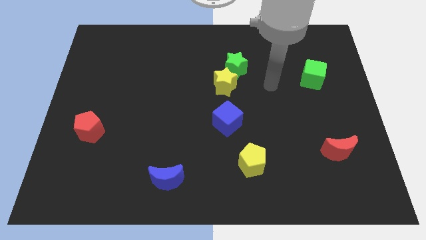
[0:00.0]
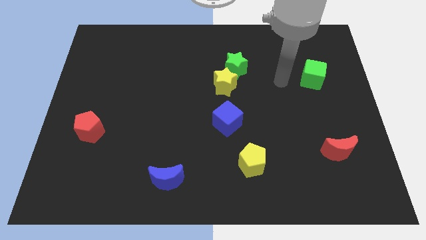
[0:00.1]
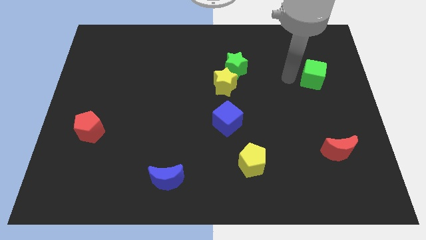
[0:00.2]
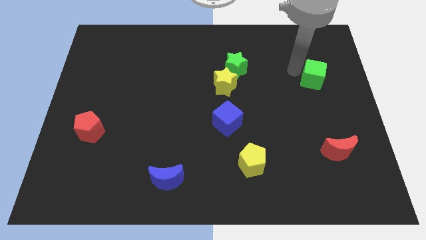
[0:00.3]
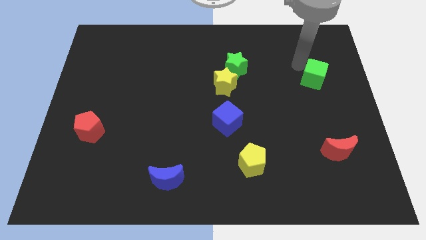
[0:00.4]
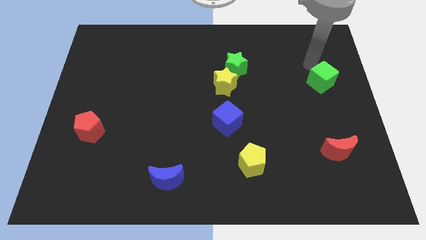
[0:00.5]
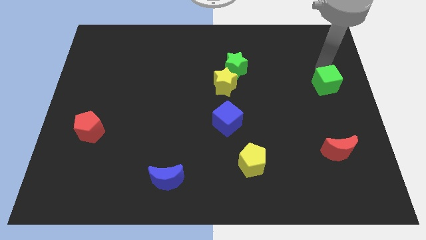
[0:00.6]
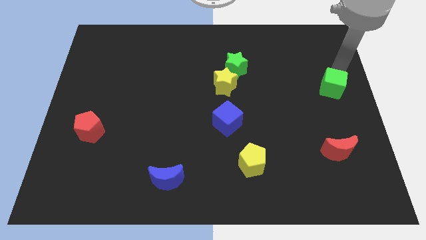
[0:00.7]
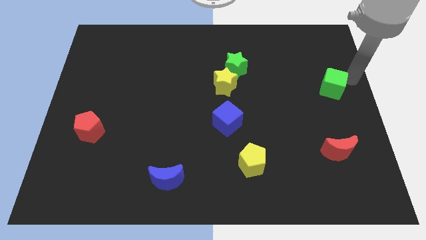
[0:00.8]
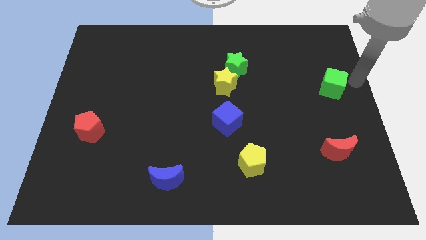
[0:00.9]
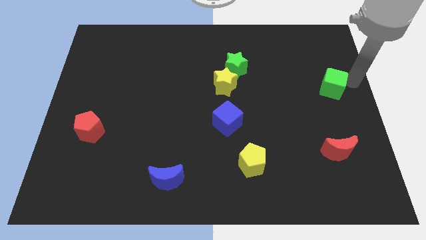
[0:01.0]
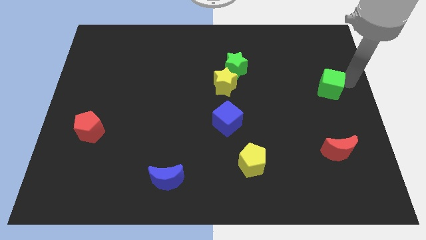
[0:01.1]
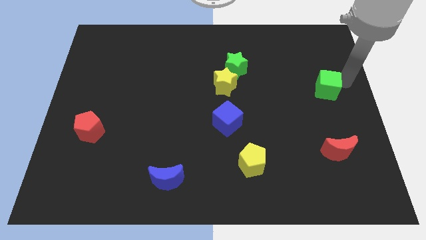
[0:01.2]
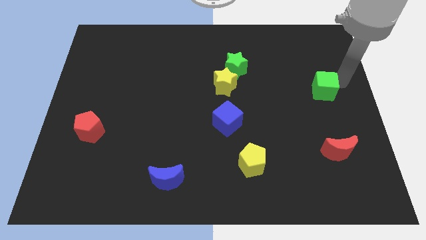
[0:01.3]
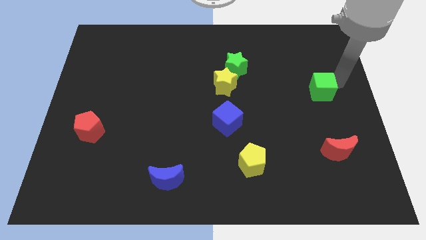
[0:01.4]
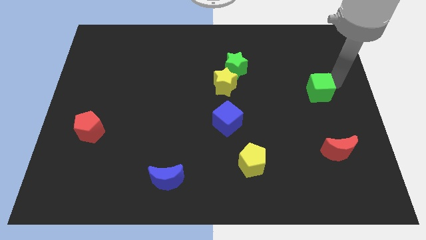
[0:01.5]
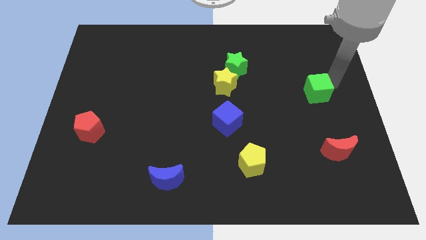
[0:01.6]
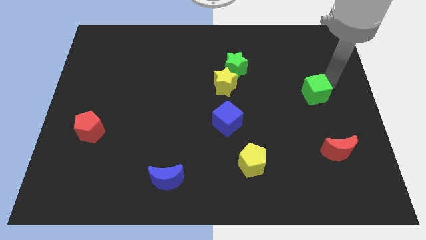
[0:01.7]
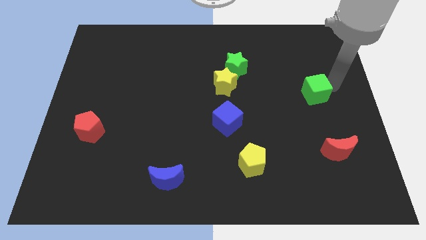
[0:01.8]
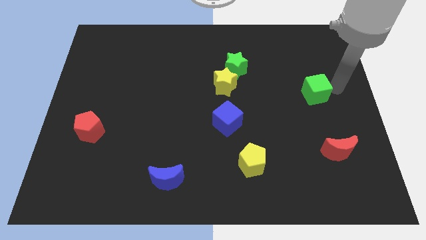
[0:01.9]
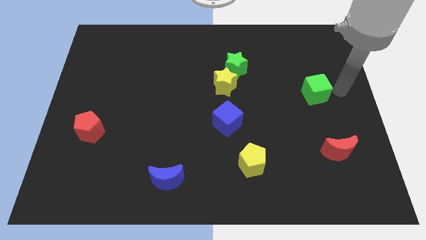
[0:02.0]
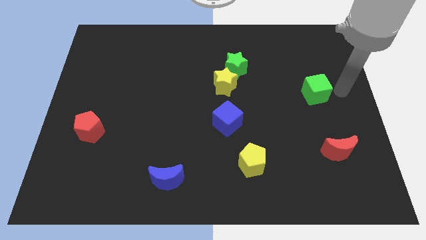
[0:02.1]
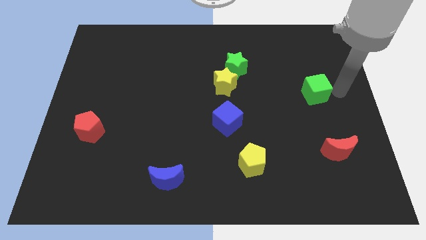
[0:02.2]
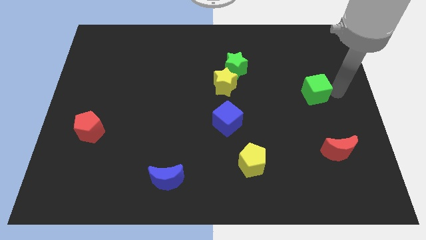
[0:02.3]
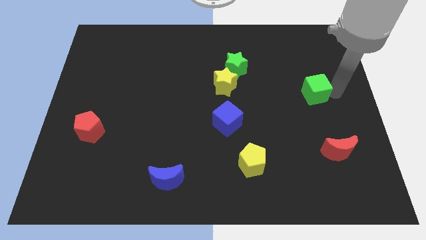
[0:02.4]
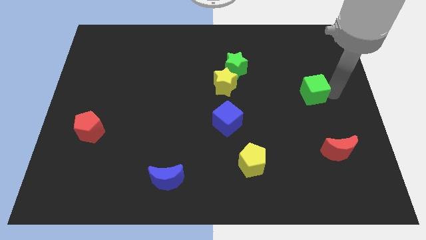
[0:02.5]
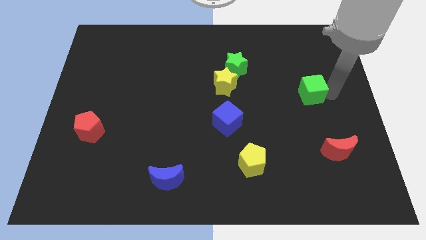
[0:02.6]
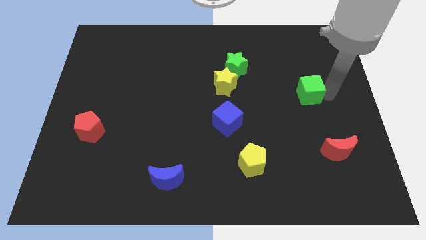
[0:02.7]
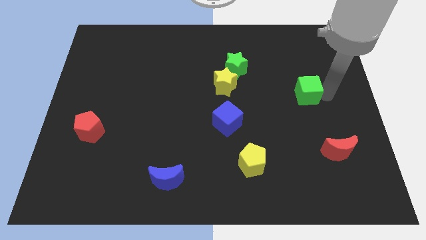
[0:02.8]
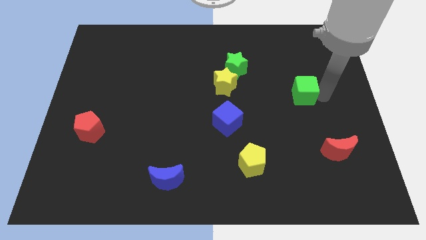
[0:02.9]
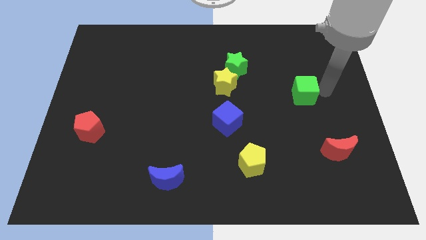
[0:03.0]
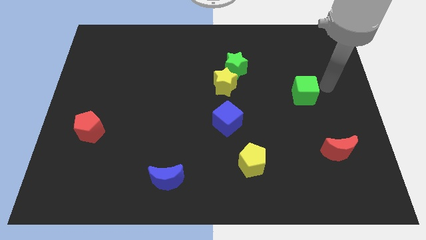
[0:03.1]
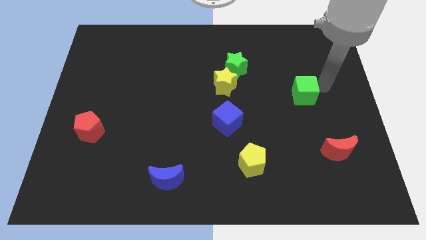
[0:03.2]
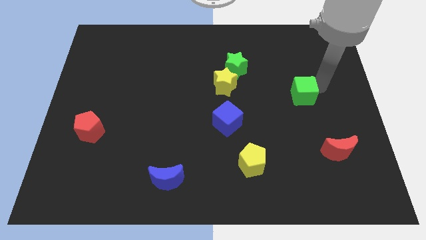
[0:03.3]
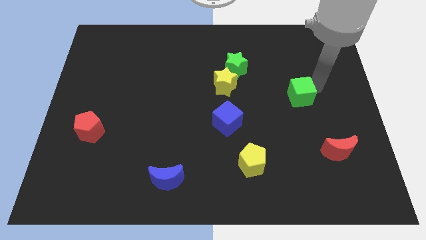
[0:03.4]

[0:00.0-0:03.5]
slightly slide the green cube down and then to the left

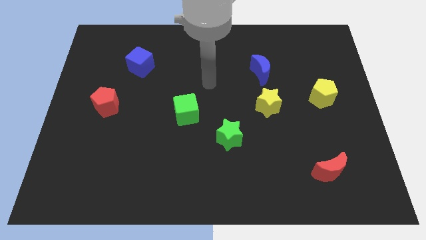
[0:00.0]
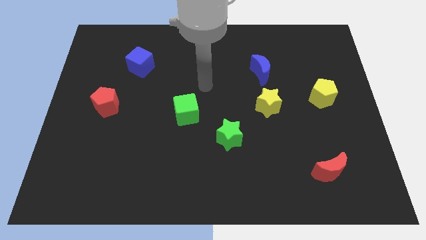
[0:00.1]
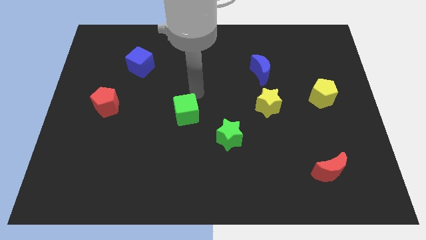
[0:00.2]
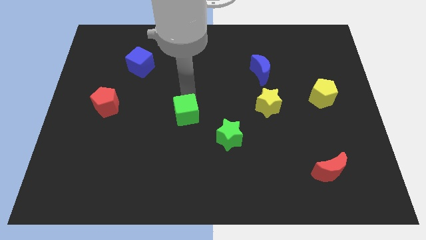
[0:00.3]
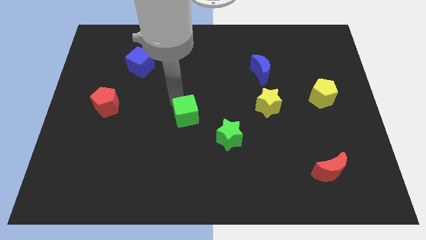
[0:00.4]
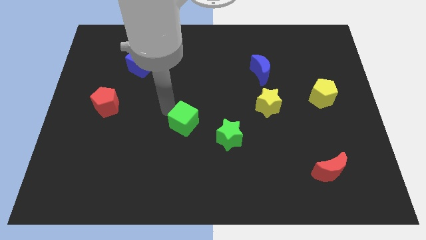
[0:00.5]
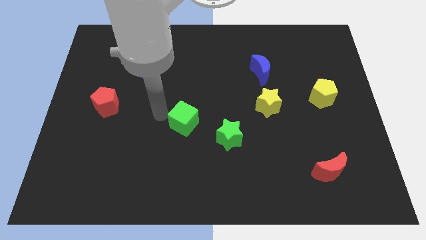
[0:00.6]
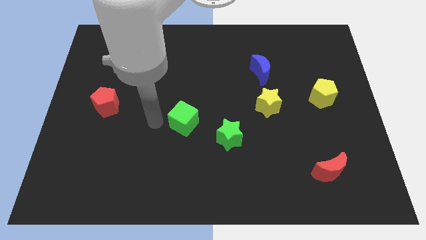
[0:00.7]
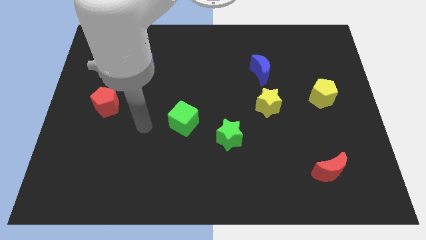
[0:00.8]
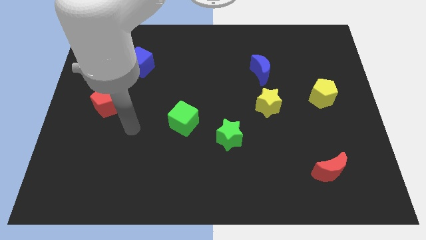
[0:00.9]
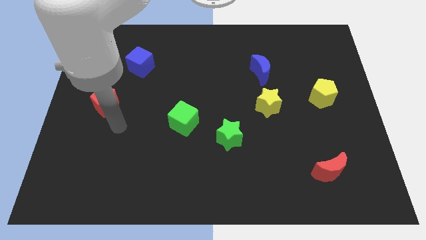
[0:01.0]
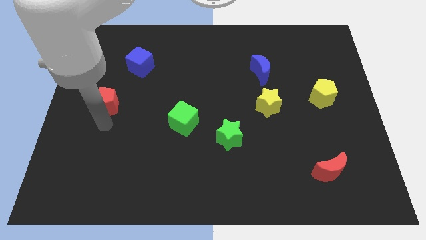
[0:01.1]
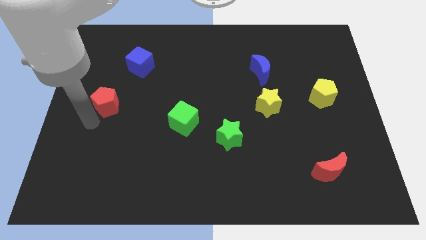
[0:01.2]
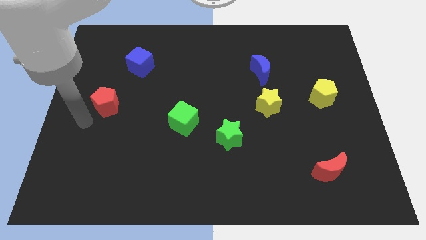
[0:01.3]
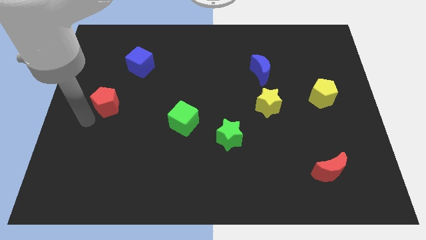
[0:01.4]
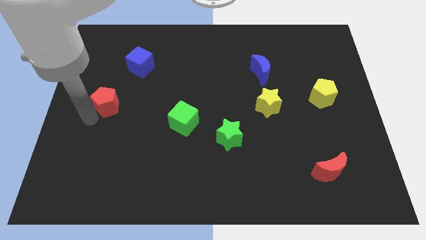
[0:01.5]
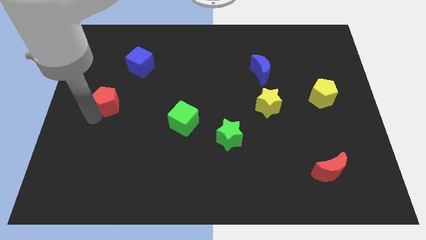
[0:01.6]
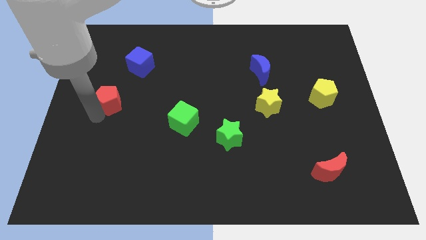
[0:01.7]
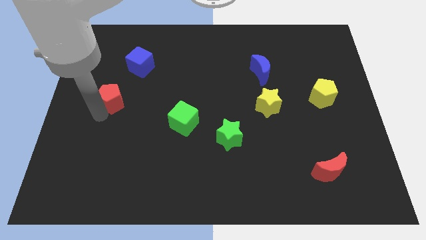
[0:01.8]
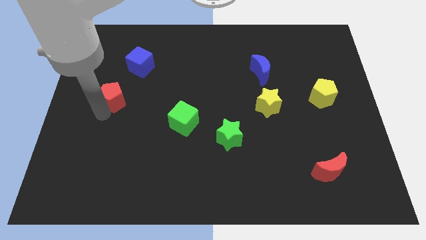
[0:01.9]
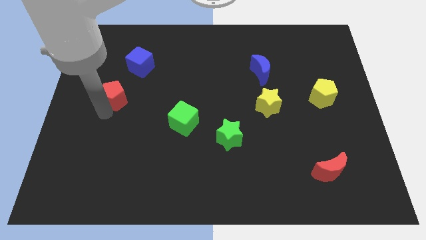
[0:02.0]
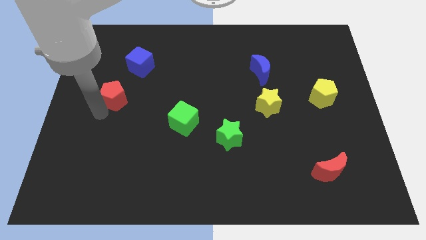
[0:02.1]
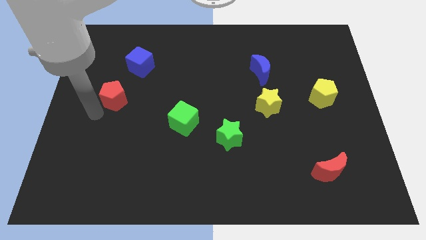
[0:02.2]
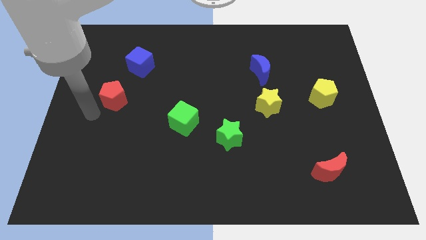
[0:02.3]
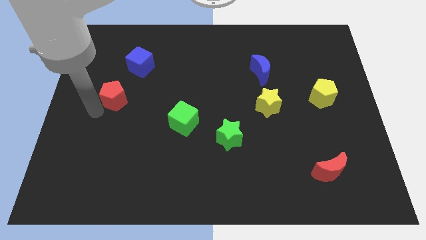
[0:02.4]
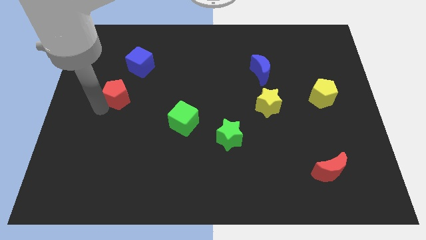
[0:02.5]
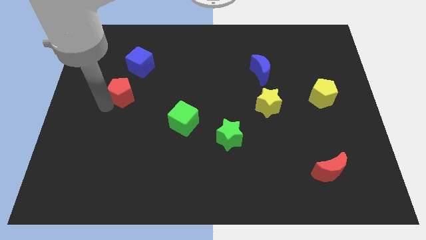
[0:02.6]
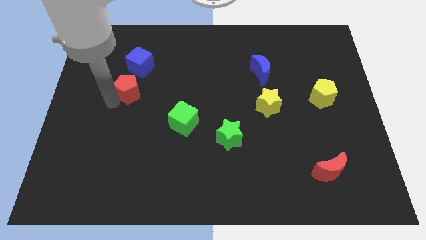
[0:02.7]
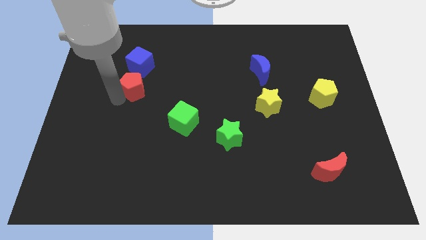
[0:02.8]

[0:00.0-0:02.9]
move the red pentagon somewhat up and to the right

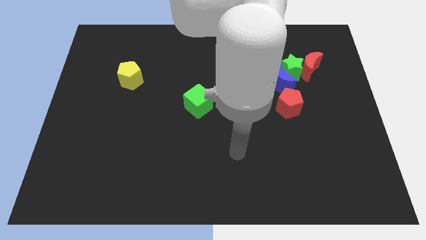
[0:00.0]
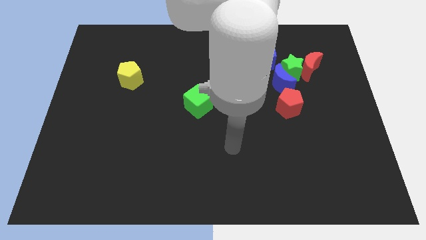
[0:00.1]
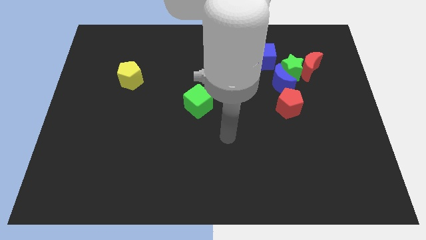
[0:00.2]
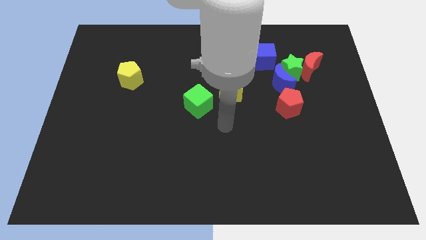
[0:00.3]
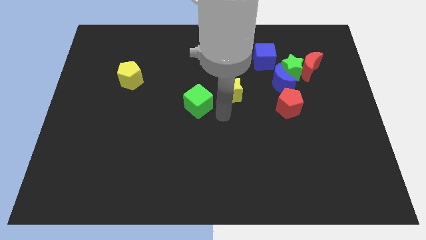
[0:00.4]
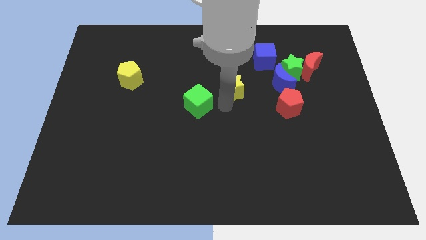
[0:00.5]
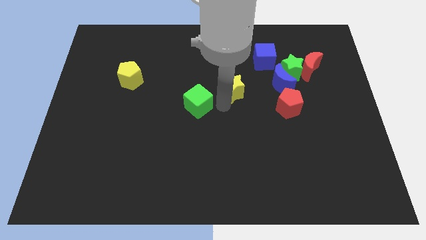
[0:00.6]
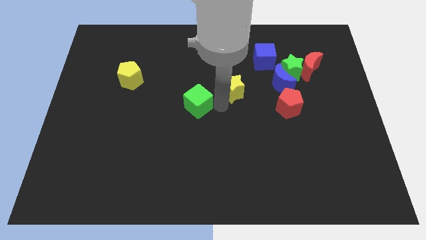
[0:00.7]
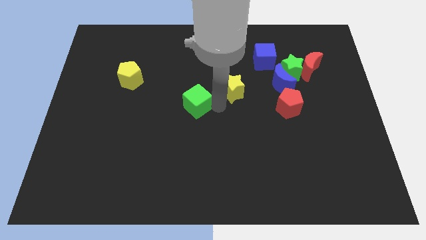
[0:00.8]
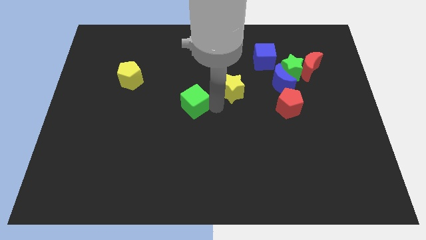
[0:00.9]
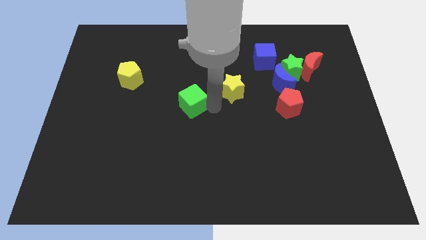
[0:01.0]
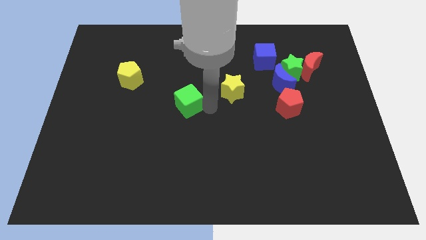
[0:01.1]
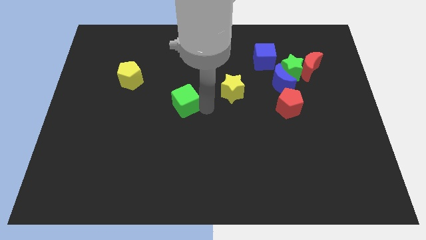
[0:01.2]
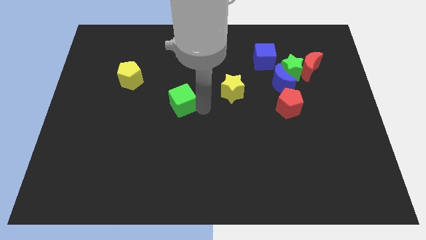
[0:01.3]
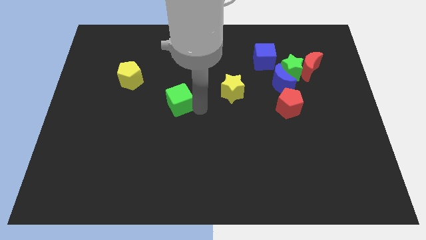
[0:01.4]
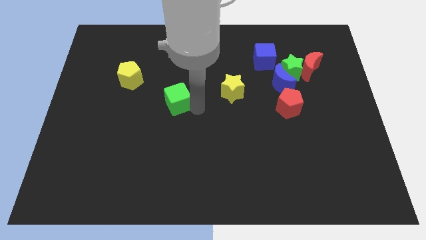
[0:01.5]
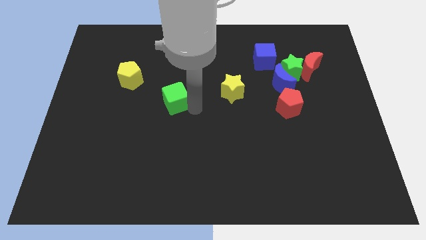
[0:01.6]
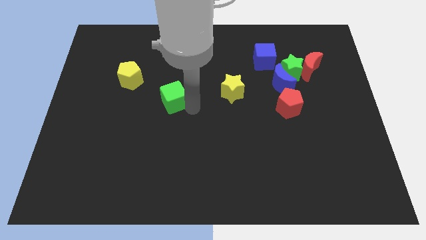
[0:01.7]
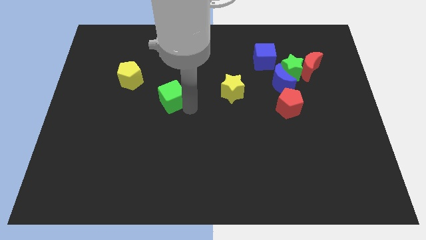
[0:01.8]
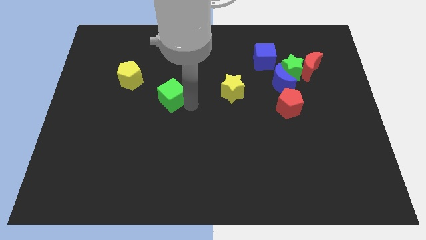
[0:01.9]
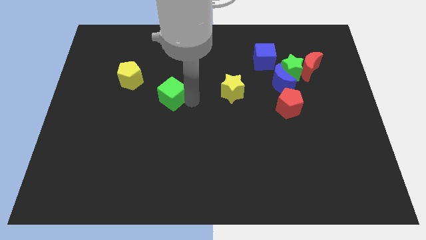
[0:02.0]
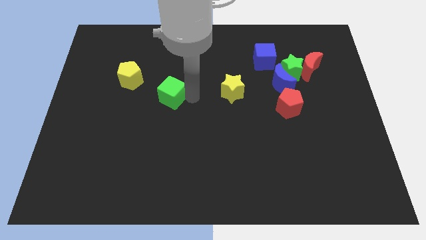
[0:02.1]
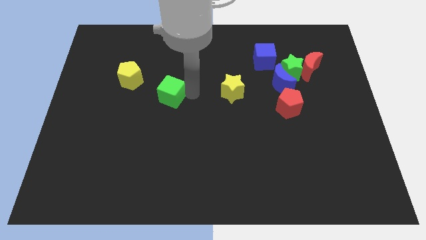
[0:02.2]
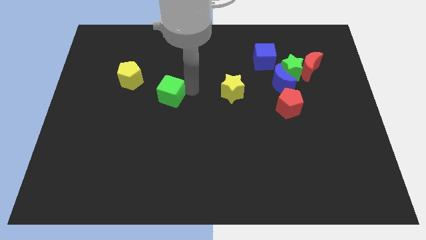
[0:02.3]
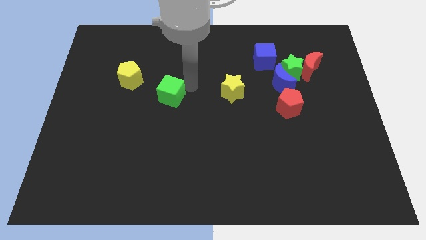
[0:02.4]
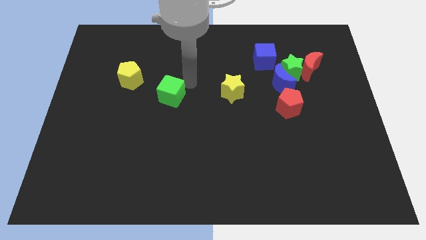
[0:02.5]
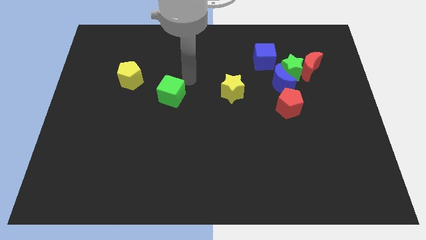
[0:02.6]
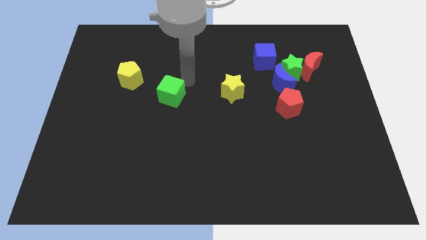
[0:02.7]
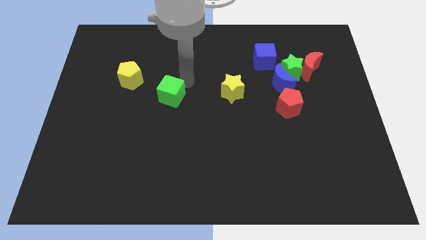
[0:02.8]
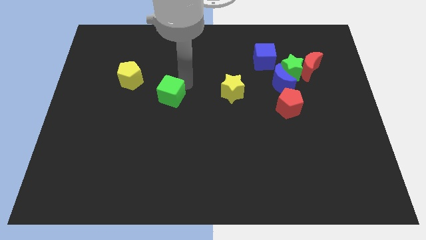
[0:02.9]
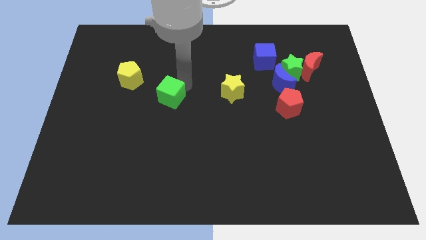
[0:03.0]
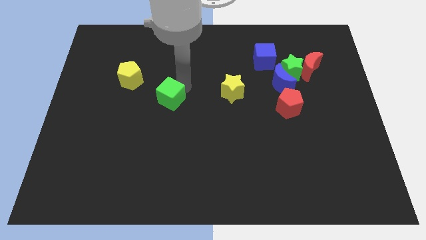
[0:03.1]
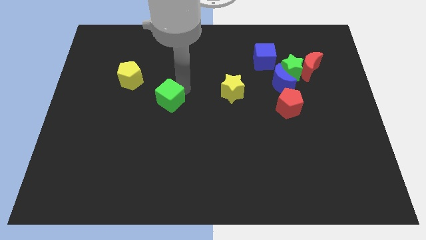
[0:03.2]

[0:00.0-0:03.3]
move the green cube a little to the left
